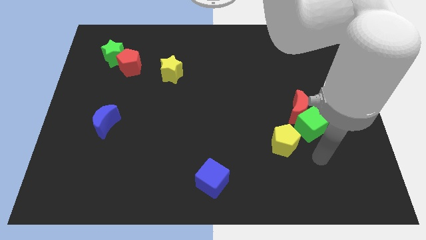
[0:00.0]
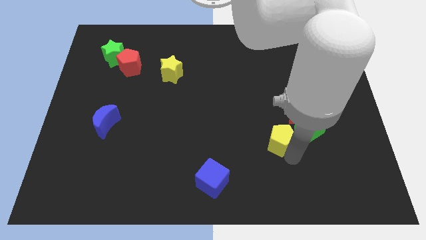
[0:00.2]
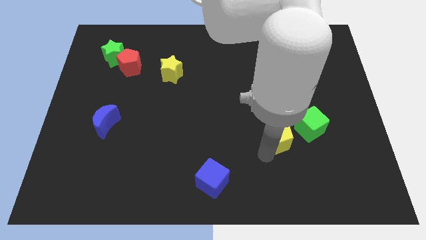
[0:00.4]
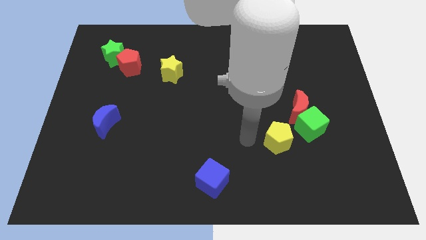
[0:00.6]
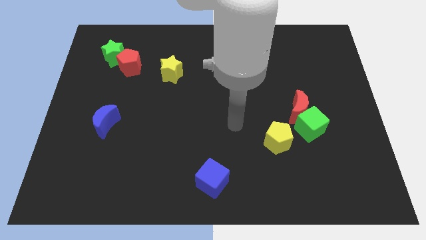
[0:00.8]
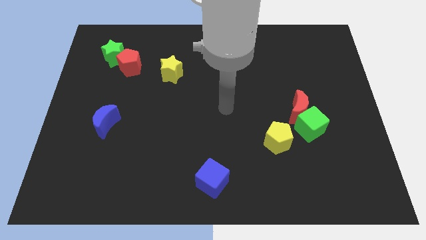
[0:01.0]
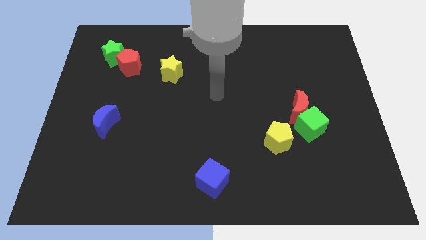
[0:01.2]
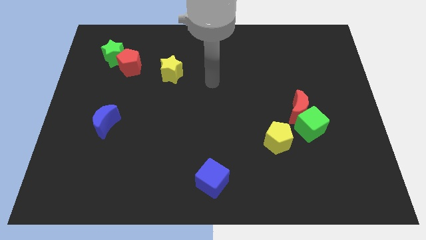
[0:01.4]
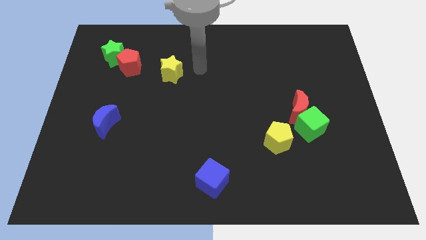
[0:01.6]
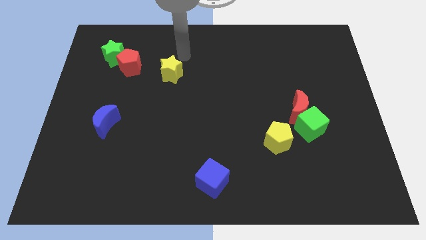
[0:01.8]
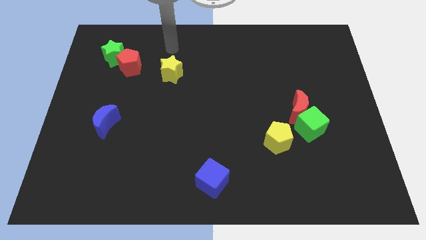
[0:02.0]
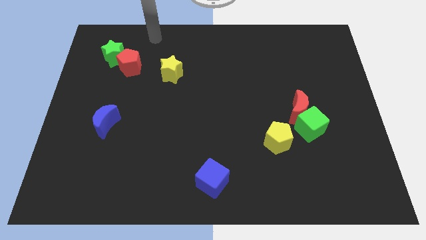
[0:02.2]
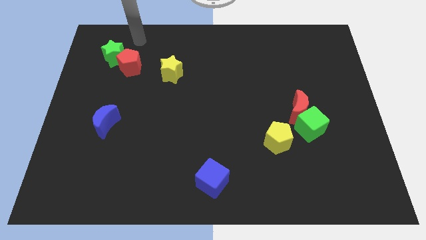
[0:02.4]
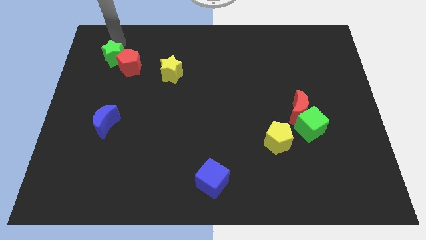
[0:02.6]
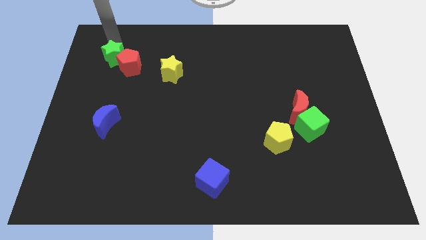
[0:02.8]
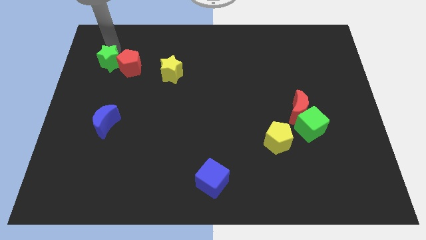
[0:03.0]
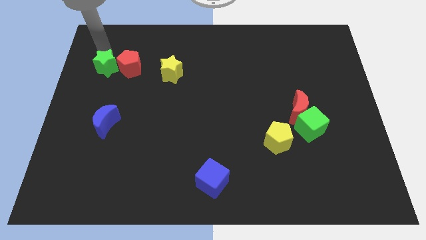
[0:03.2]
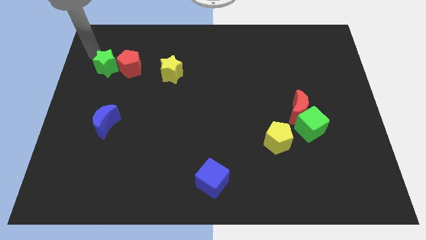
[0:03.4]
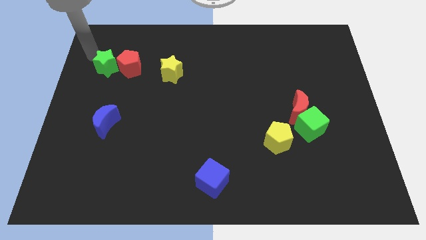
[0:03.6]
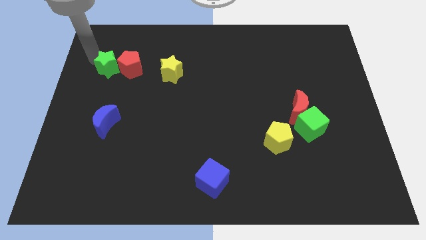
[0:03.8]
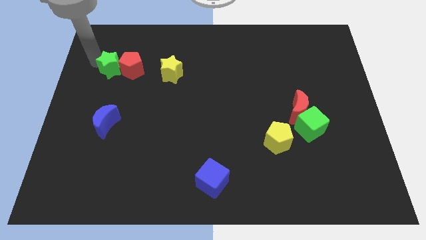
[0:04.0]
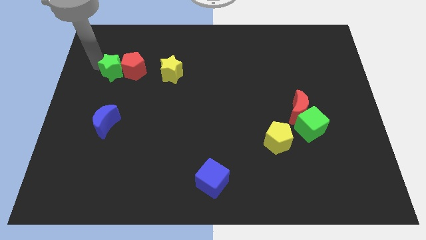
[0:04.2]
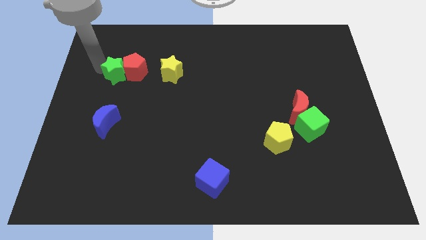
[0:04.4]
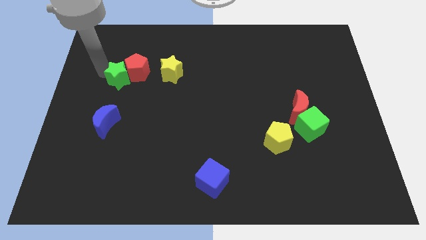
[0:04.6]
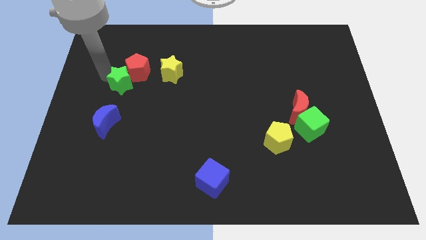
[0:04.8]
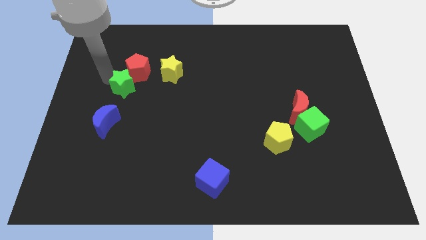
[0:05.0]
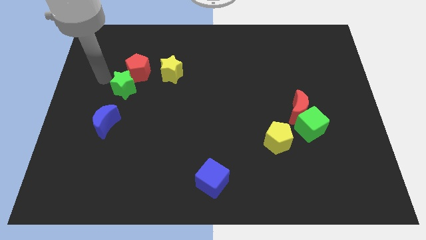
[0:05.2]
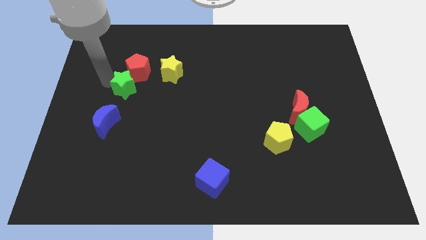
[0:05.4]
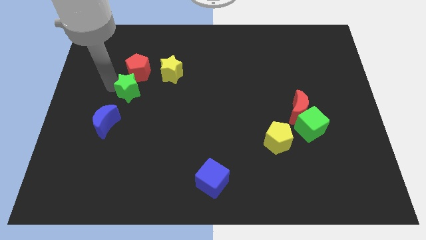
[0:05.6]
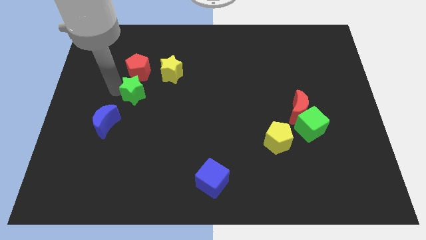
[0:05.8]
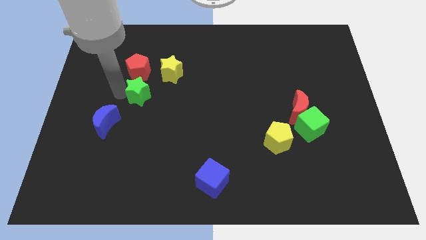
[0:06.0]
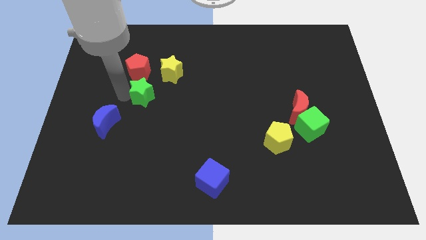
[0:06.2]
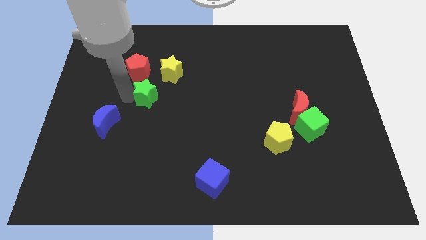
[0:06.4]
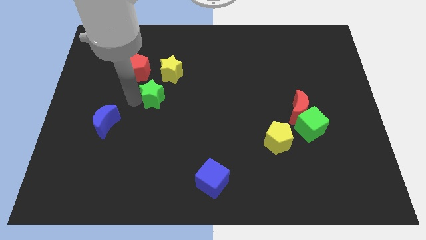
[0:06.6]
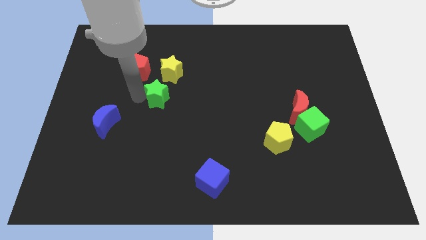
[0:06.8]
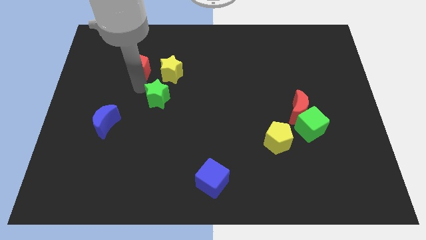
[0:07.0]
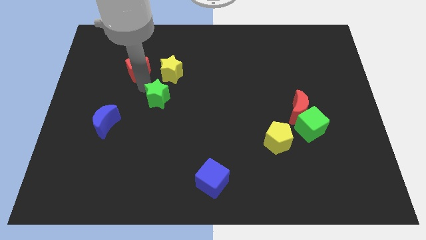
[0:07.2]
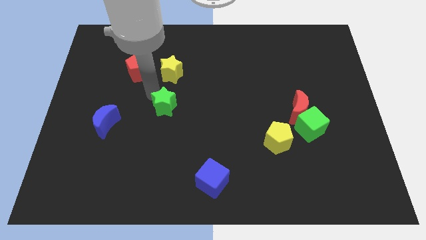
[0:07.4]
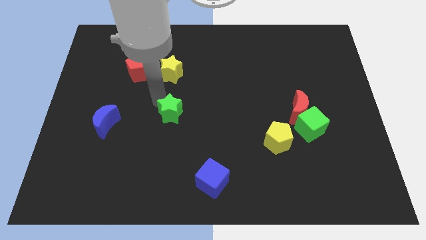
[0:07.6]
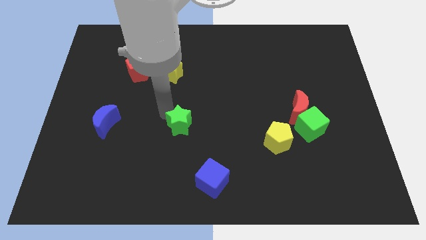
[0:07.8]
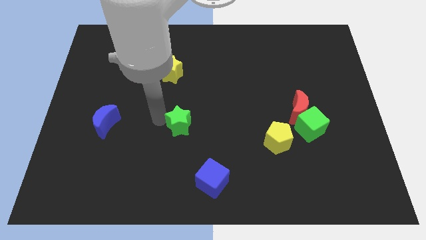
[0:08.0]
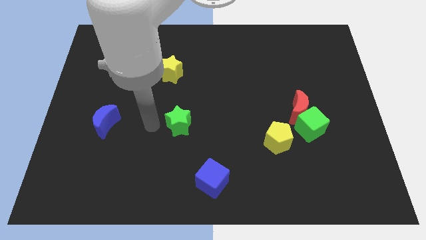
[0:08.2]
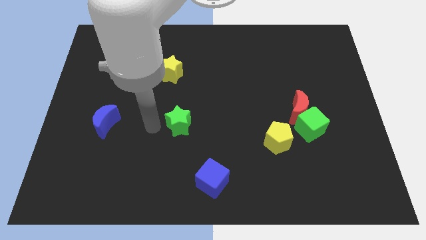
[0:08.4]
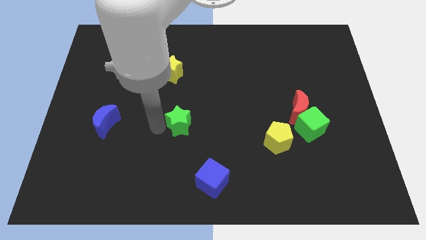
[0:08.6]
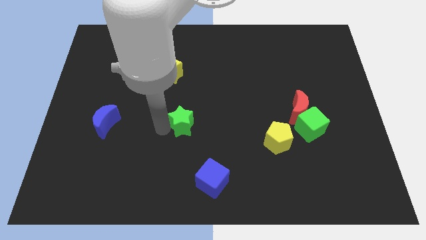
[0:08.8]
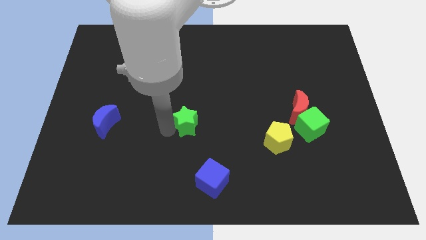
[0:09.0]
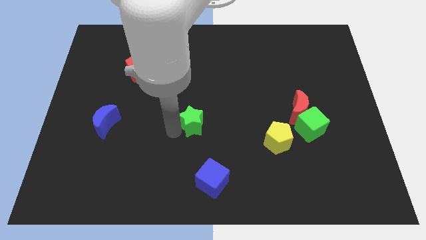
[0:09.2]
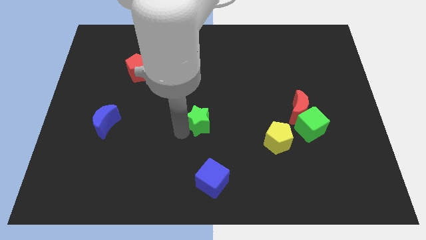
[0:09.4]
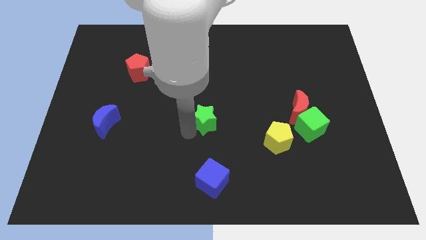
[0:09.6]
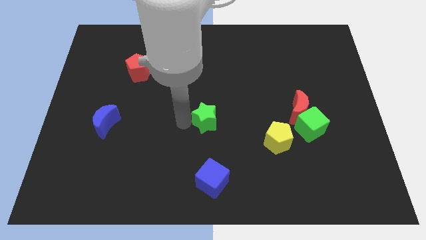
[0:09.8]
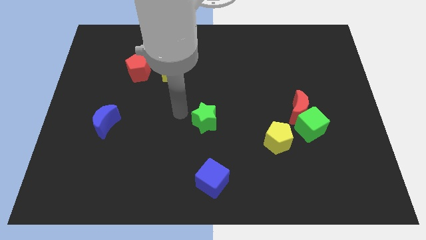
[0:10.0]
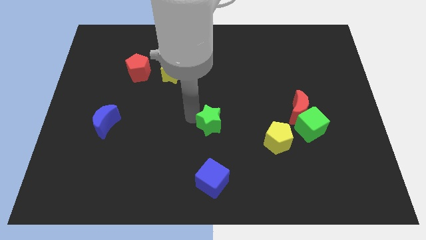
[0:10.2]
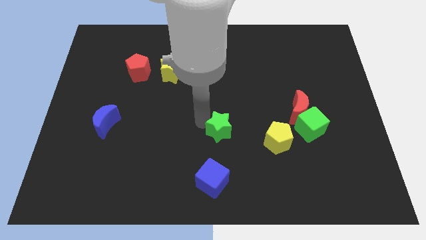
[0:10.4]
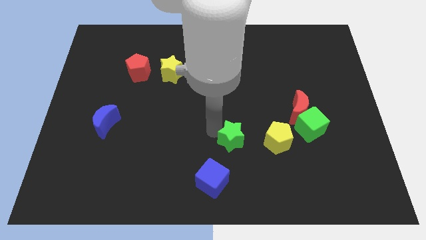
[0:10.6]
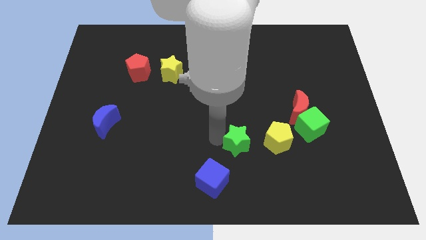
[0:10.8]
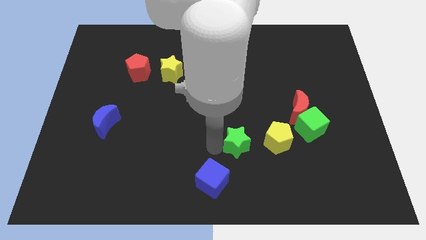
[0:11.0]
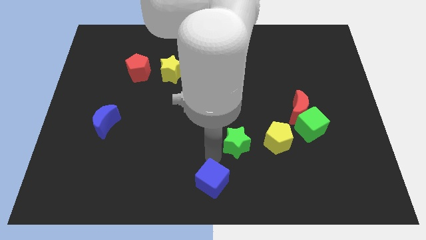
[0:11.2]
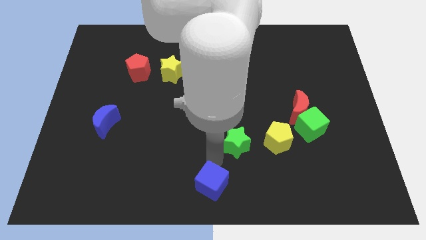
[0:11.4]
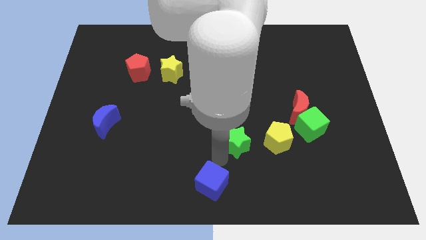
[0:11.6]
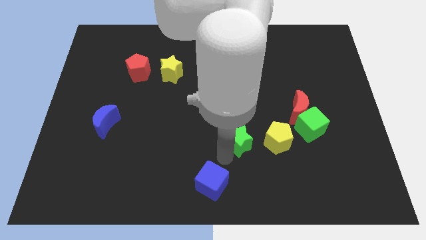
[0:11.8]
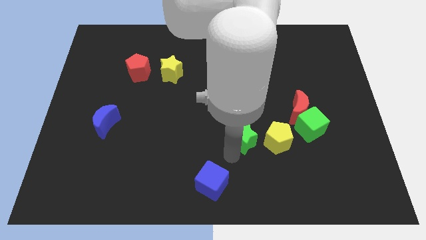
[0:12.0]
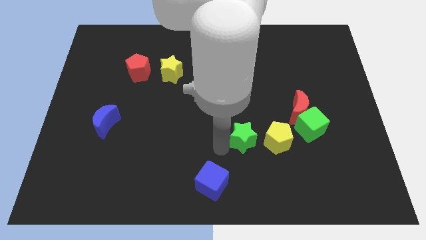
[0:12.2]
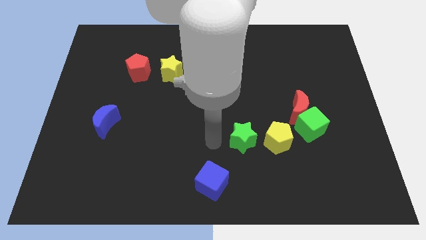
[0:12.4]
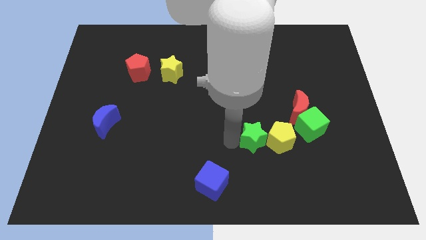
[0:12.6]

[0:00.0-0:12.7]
slide the green star towards the yellow pentagon
